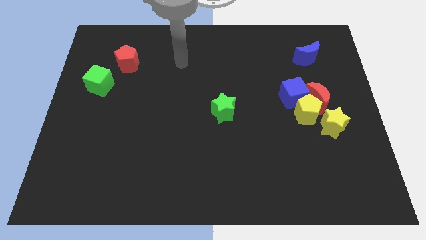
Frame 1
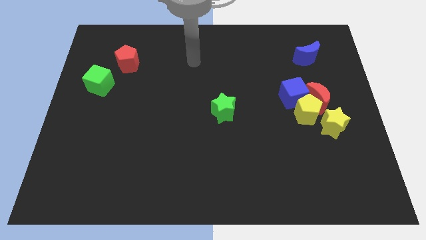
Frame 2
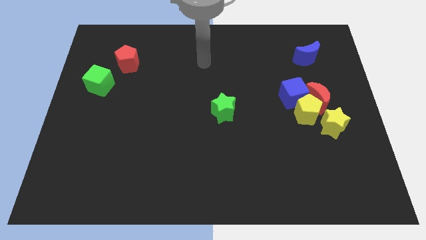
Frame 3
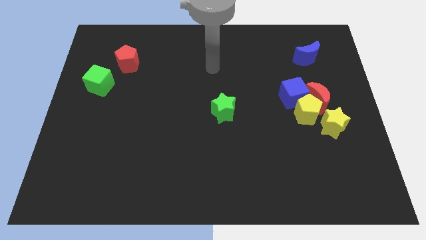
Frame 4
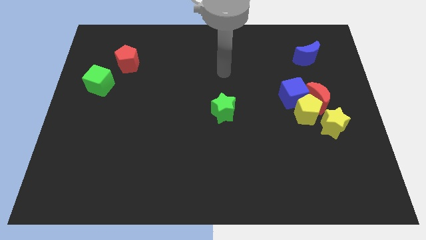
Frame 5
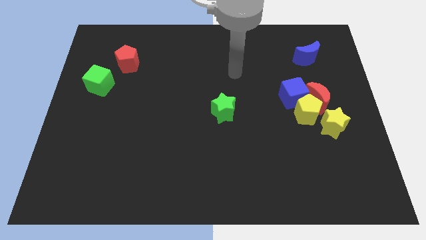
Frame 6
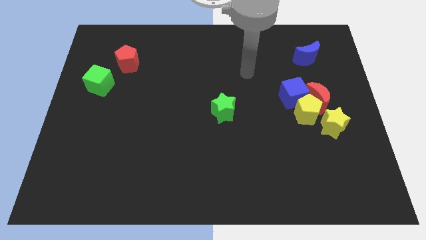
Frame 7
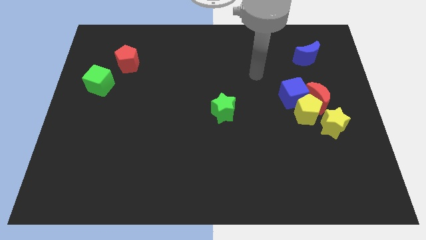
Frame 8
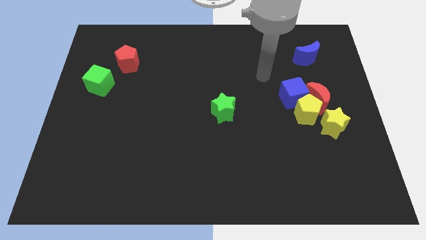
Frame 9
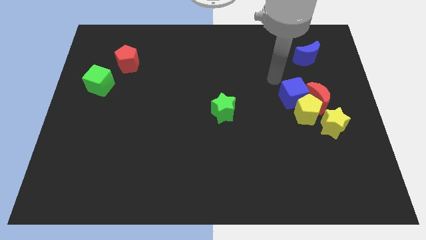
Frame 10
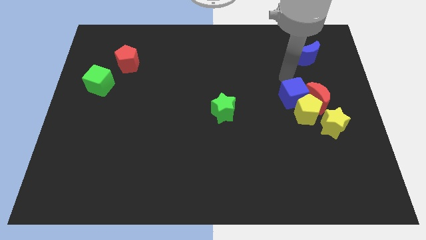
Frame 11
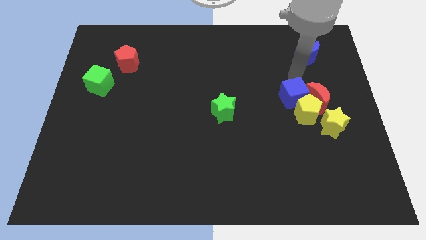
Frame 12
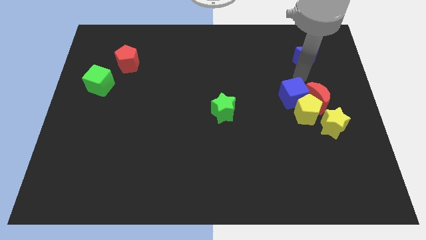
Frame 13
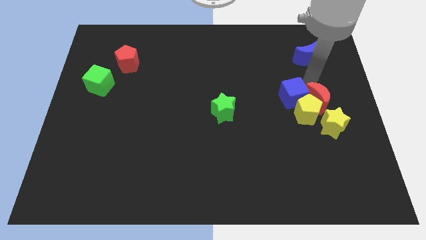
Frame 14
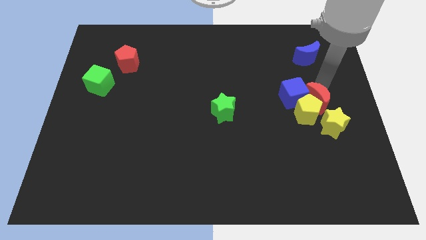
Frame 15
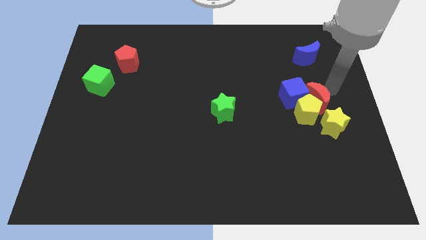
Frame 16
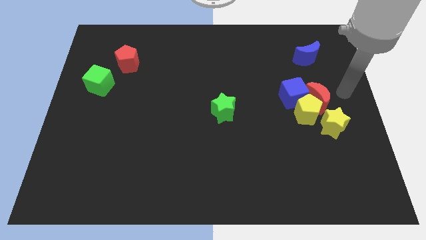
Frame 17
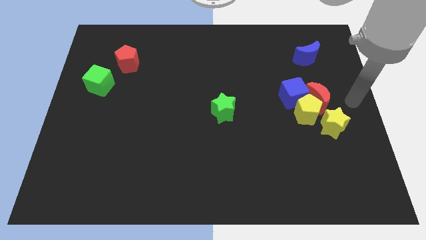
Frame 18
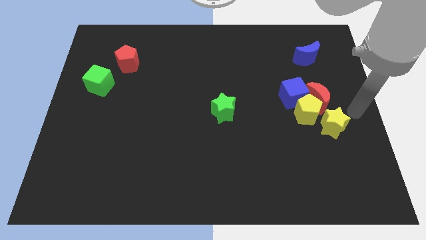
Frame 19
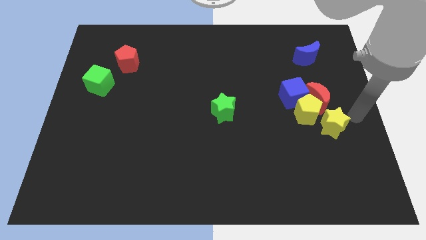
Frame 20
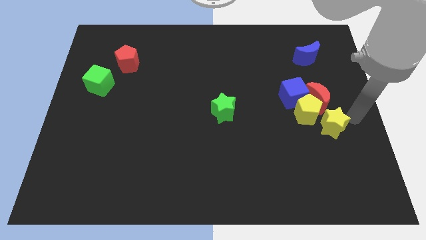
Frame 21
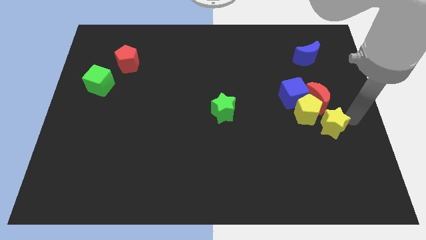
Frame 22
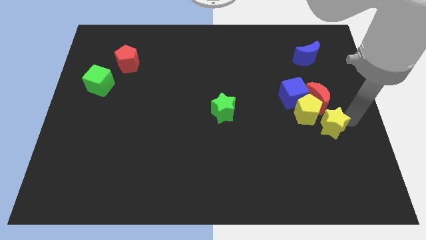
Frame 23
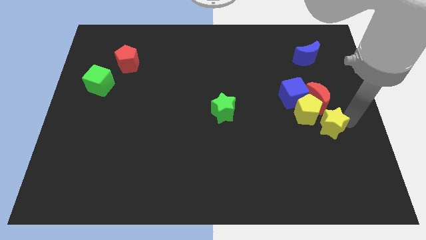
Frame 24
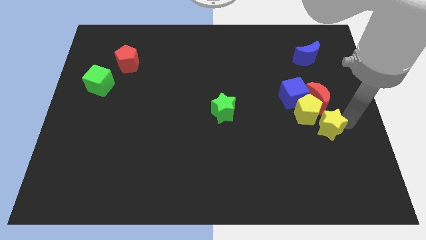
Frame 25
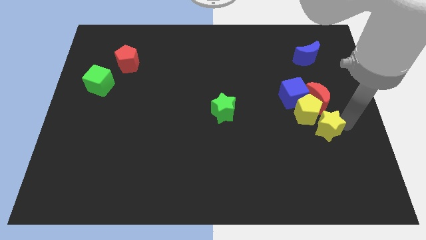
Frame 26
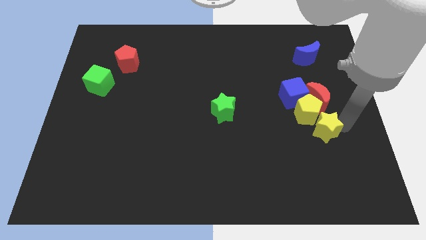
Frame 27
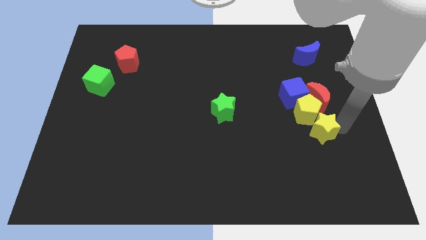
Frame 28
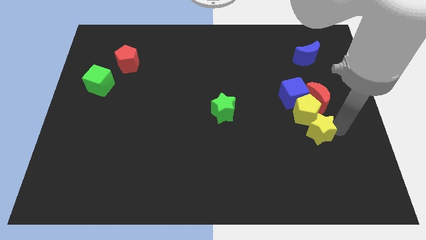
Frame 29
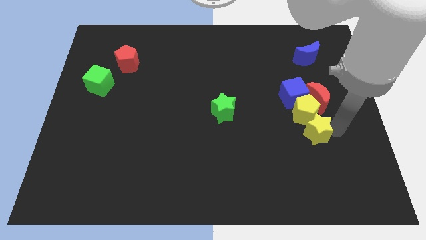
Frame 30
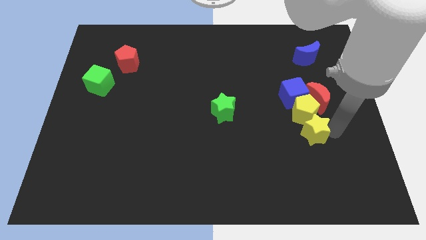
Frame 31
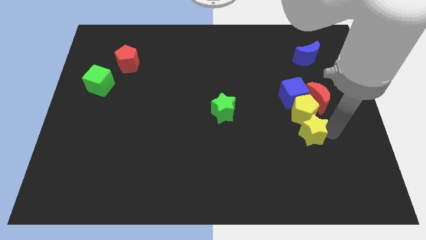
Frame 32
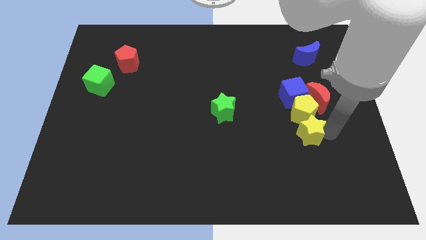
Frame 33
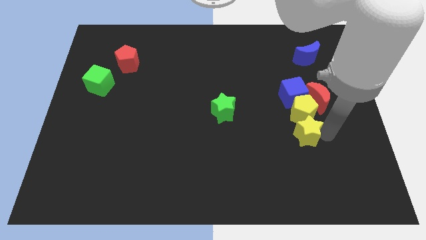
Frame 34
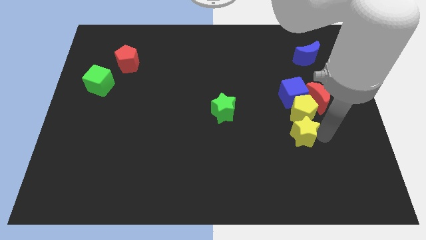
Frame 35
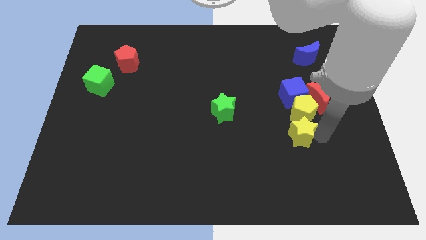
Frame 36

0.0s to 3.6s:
push the yellow star slightly left

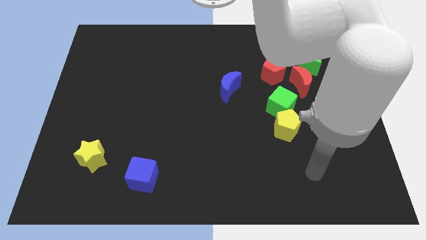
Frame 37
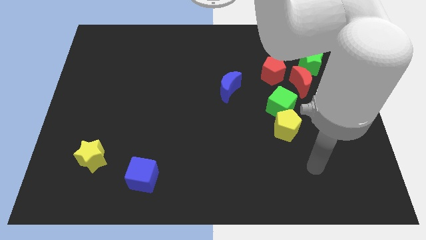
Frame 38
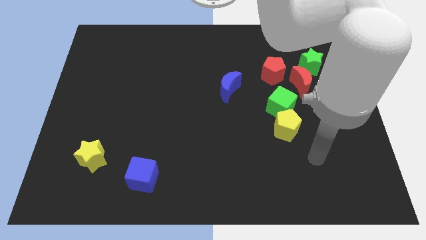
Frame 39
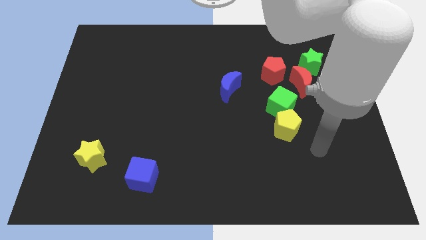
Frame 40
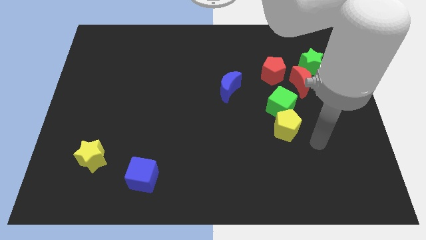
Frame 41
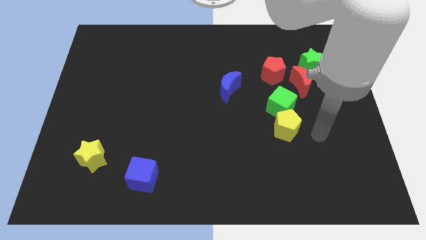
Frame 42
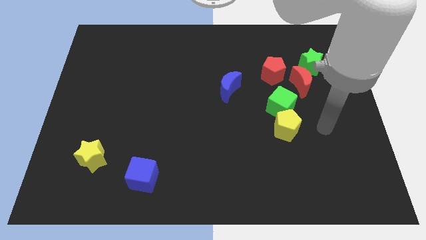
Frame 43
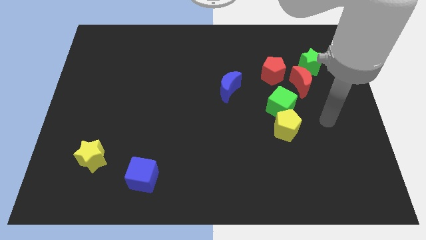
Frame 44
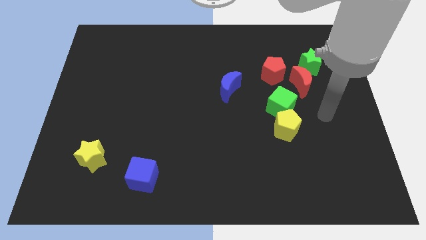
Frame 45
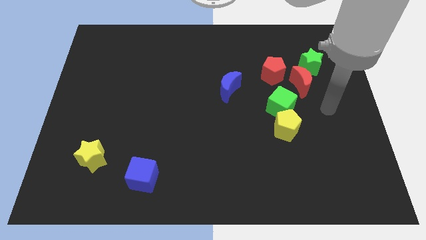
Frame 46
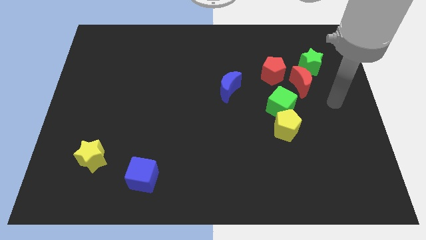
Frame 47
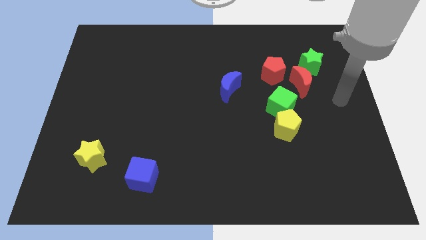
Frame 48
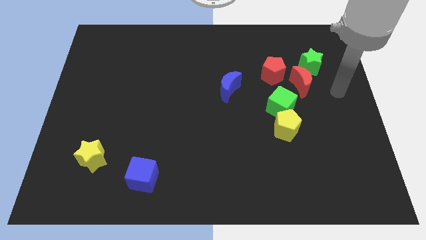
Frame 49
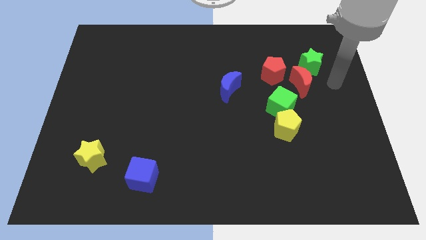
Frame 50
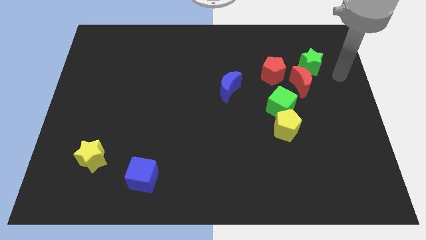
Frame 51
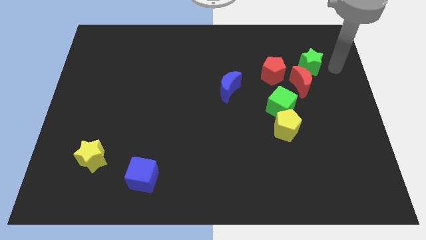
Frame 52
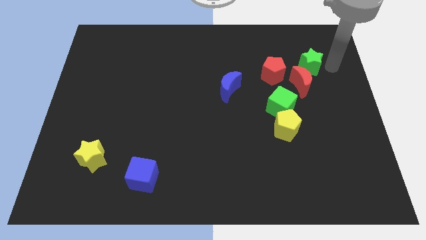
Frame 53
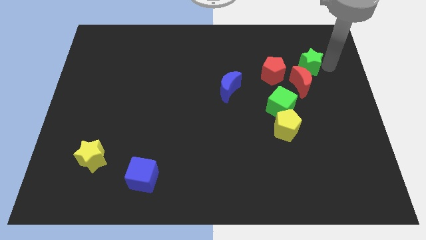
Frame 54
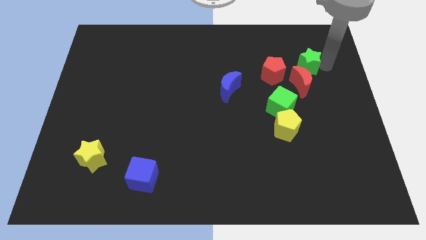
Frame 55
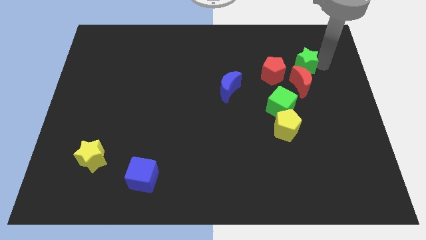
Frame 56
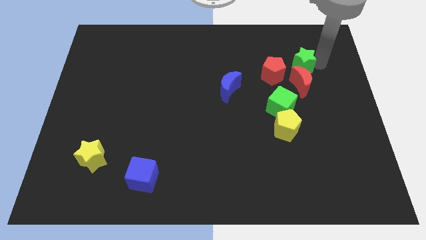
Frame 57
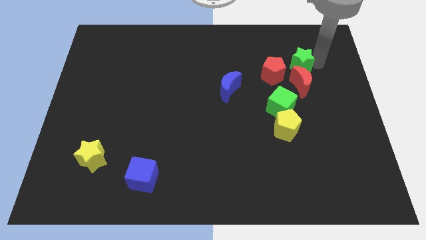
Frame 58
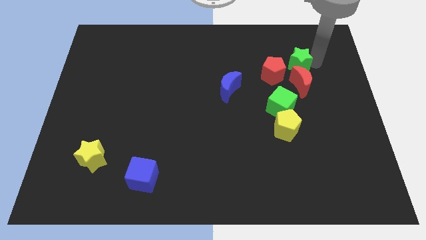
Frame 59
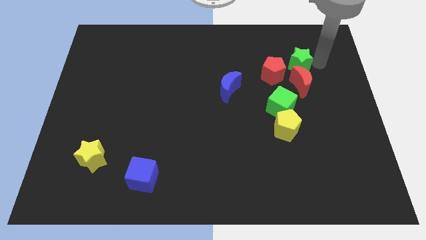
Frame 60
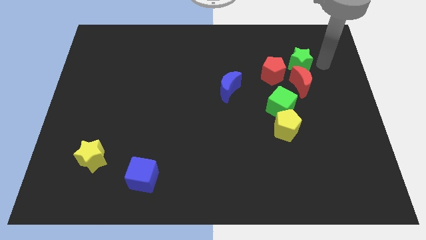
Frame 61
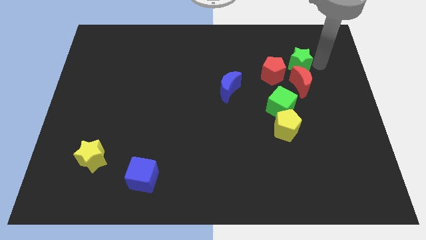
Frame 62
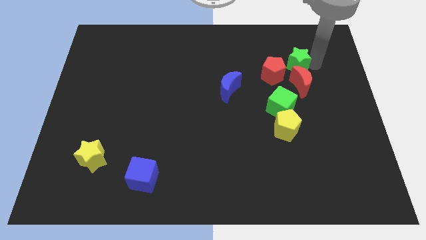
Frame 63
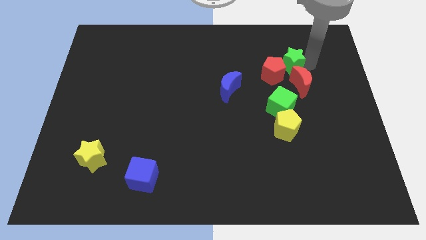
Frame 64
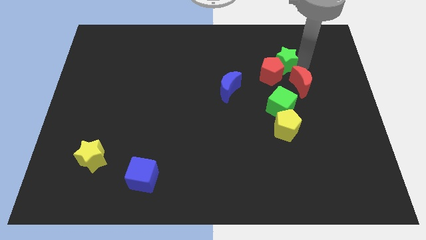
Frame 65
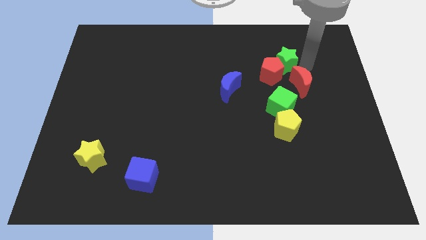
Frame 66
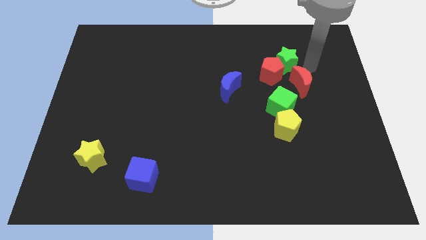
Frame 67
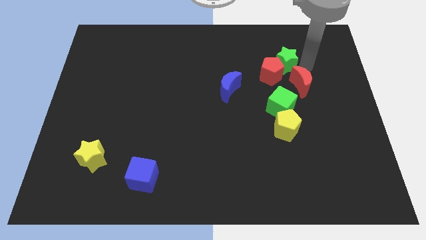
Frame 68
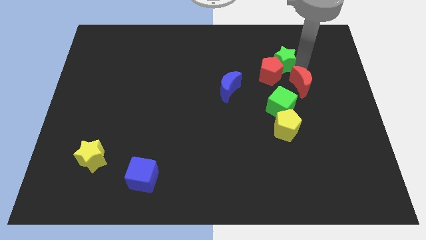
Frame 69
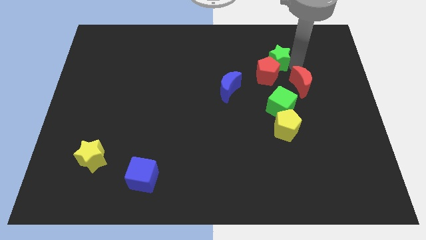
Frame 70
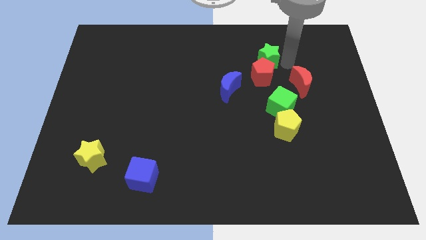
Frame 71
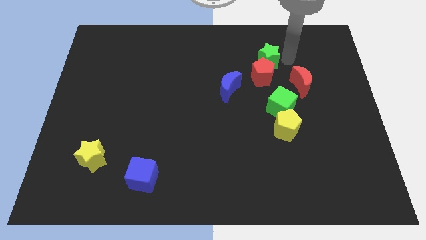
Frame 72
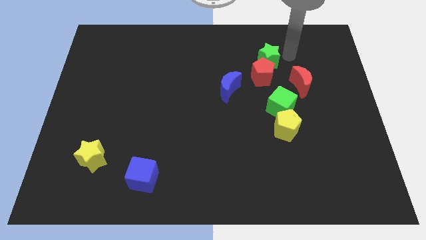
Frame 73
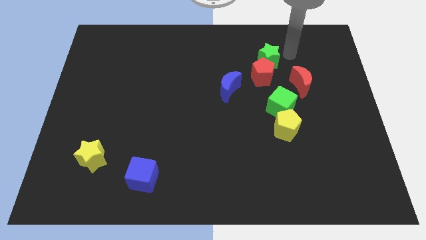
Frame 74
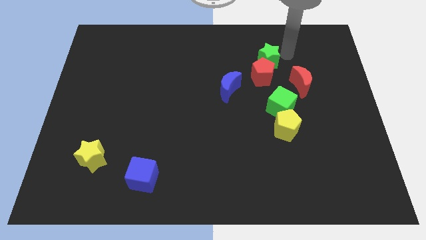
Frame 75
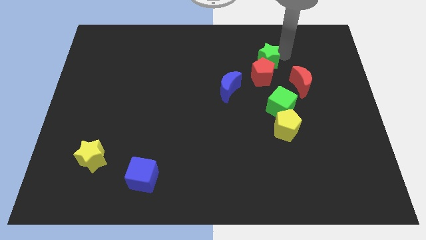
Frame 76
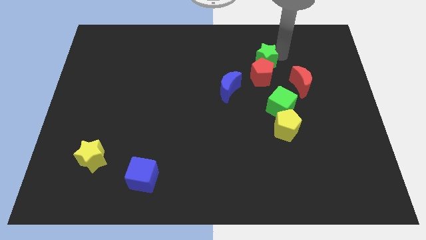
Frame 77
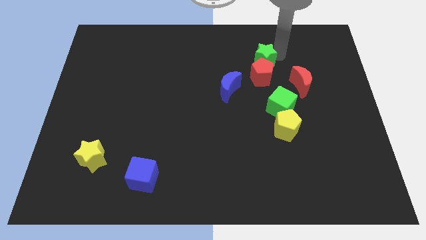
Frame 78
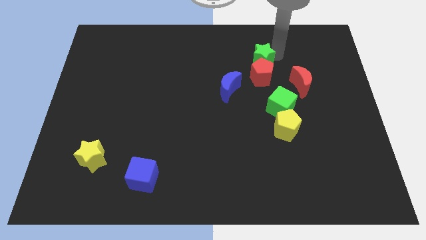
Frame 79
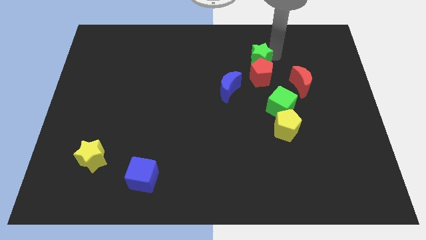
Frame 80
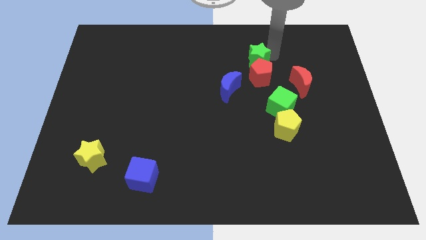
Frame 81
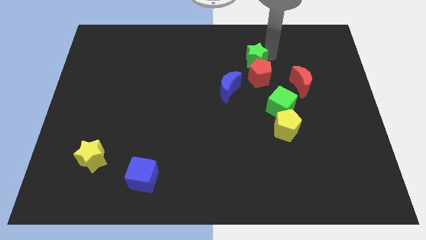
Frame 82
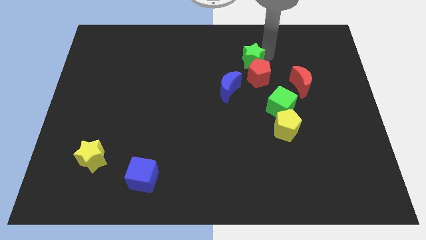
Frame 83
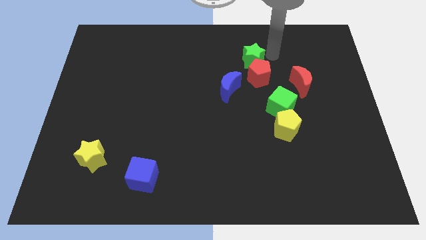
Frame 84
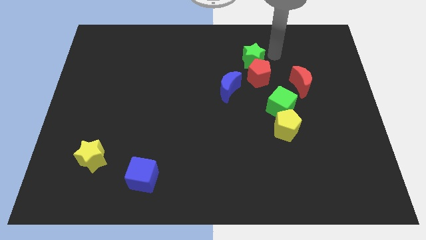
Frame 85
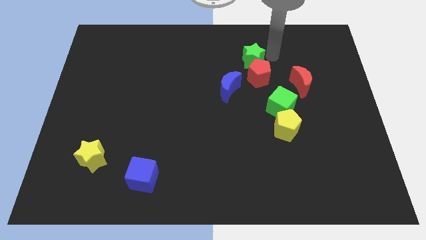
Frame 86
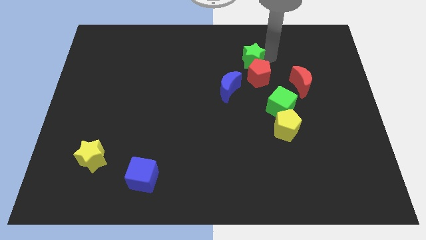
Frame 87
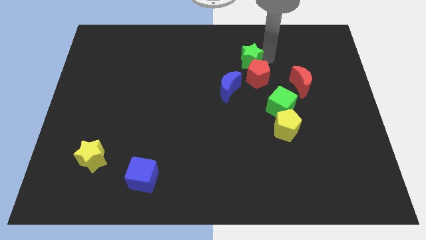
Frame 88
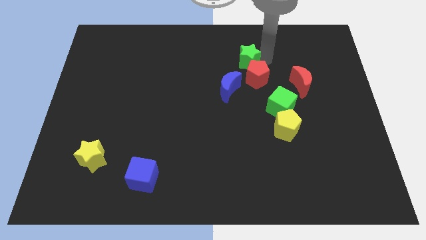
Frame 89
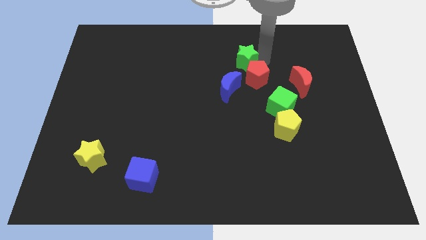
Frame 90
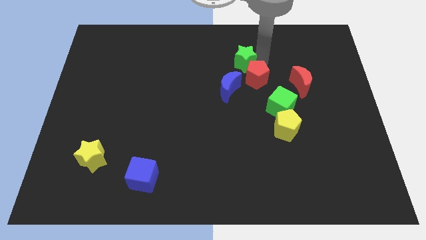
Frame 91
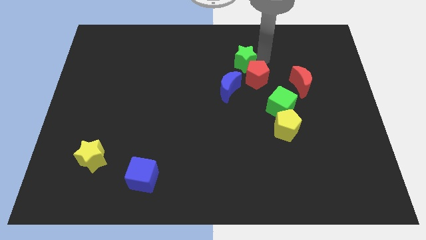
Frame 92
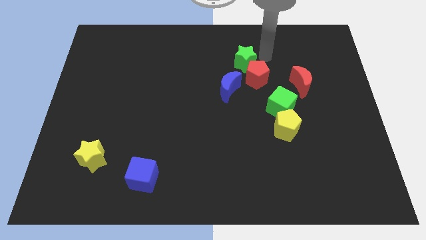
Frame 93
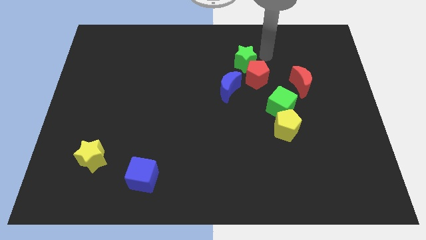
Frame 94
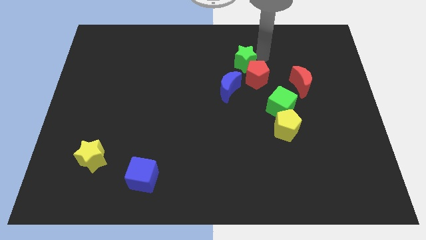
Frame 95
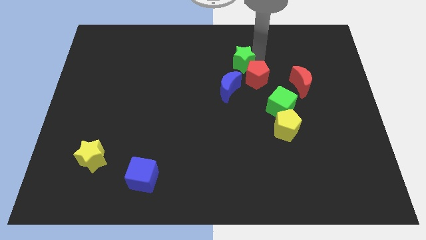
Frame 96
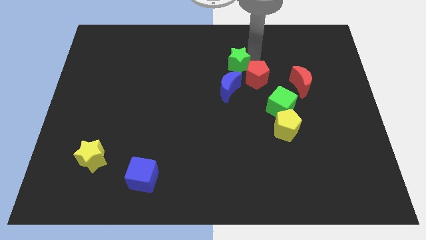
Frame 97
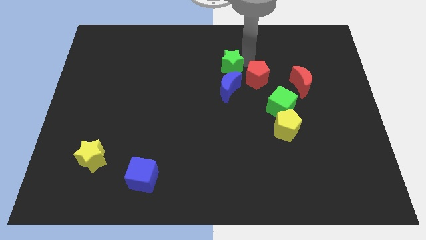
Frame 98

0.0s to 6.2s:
slide the green star left
